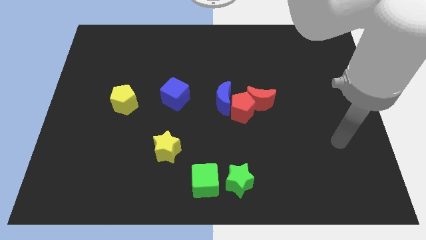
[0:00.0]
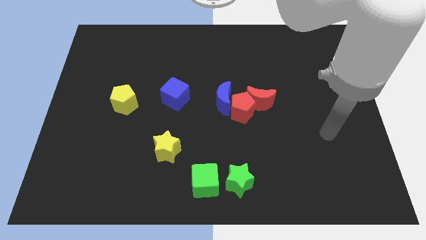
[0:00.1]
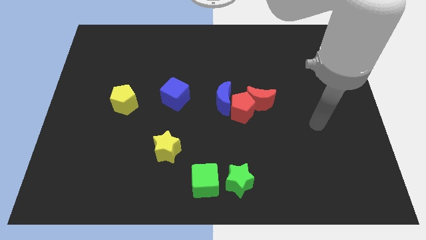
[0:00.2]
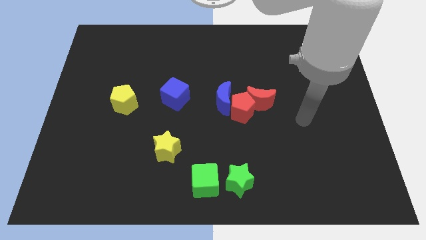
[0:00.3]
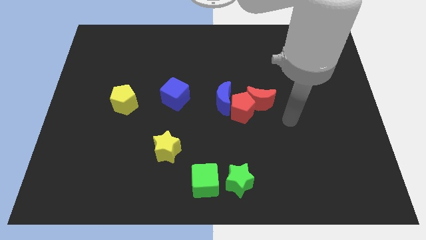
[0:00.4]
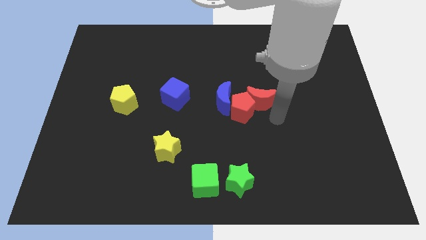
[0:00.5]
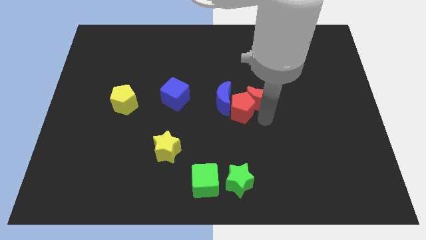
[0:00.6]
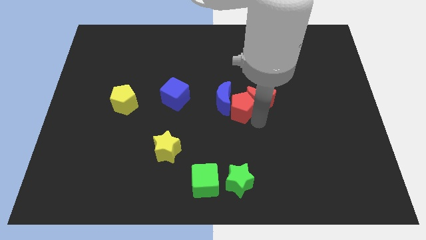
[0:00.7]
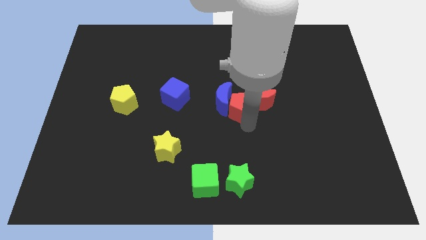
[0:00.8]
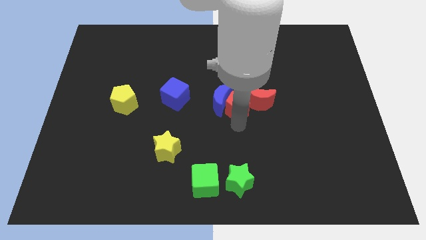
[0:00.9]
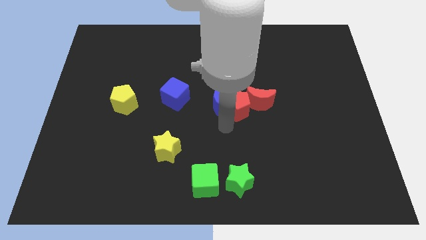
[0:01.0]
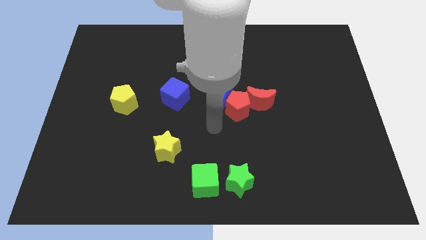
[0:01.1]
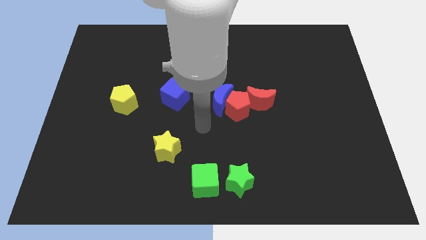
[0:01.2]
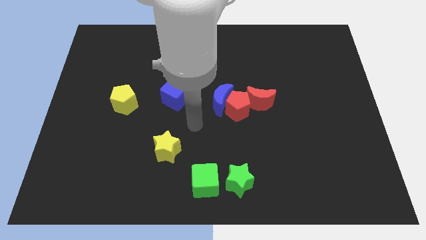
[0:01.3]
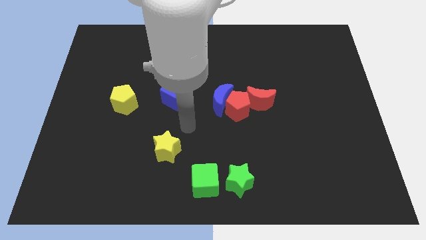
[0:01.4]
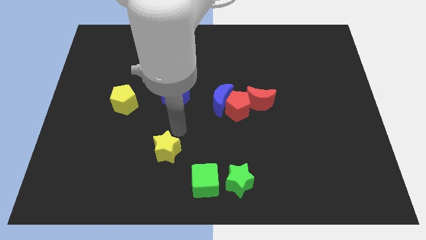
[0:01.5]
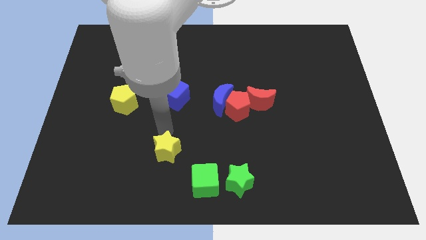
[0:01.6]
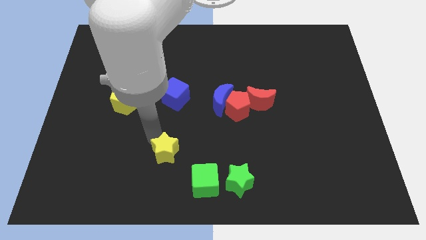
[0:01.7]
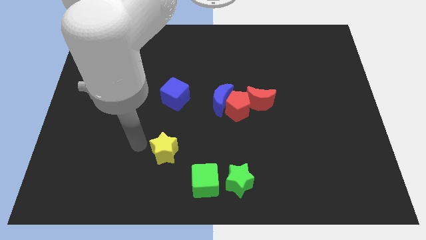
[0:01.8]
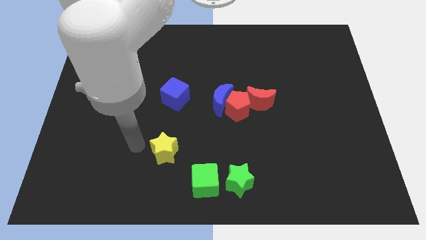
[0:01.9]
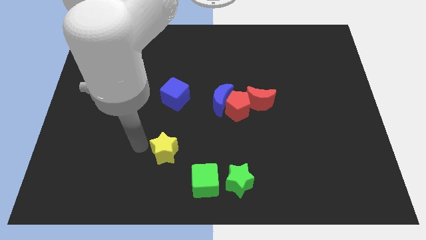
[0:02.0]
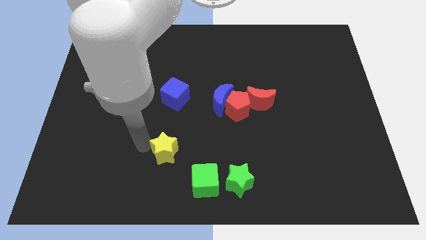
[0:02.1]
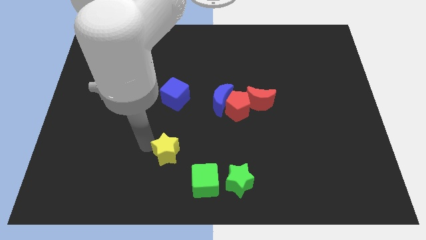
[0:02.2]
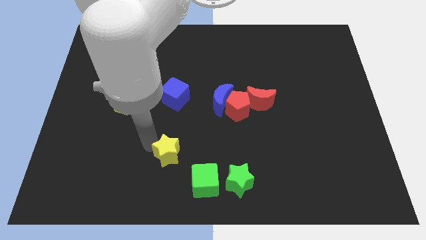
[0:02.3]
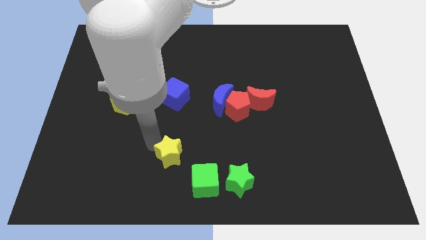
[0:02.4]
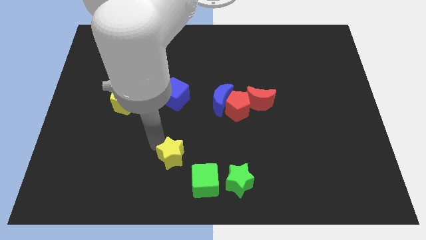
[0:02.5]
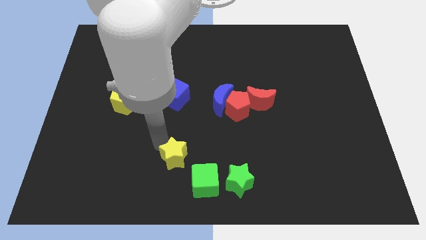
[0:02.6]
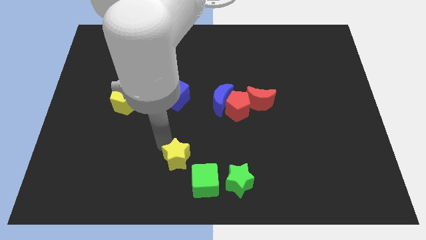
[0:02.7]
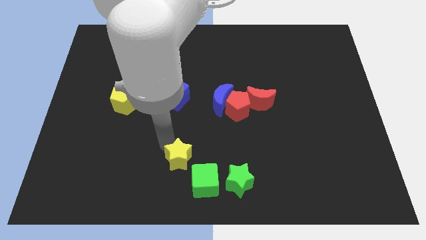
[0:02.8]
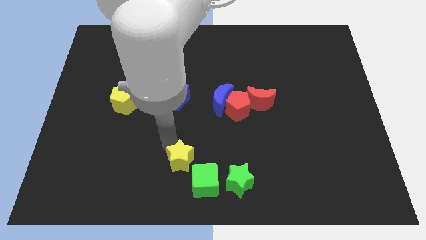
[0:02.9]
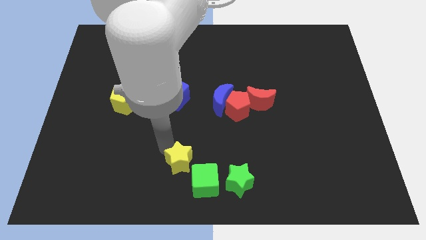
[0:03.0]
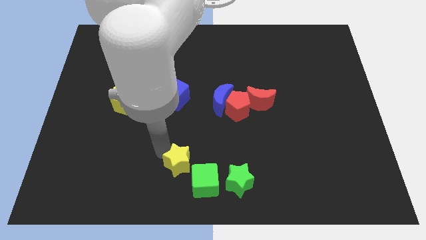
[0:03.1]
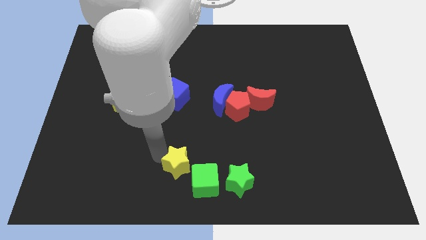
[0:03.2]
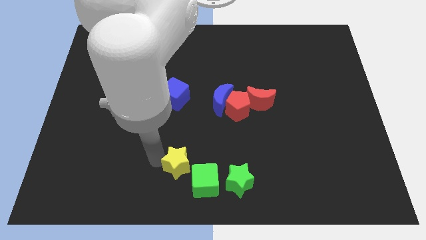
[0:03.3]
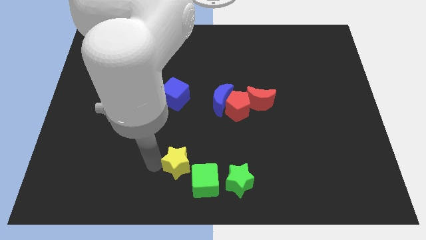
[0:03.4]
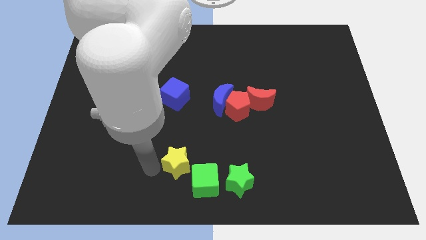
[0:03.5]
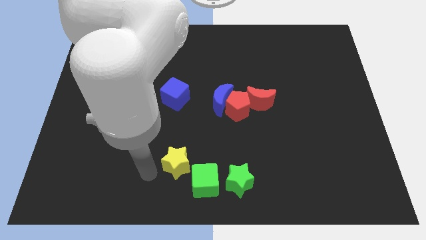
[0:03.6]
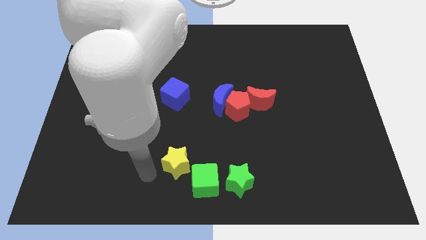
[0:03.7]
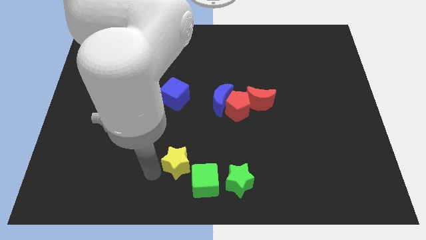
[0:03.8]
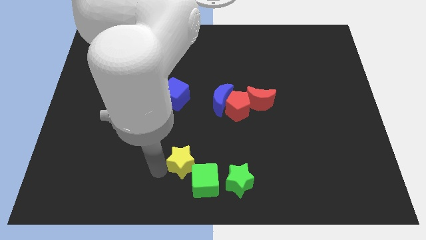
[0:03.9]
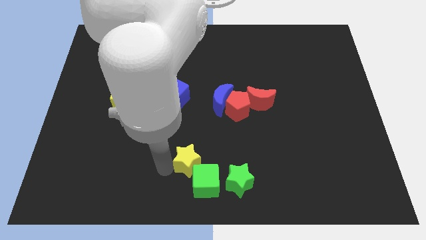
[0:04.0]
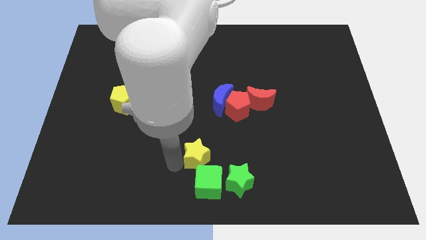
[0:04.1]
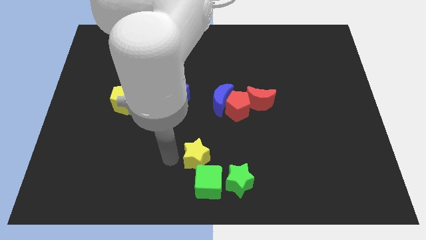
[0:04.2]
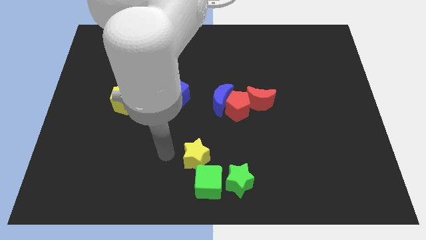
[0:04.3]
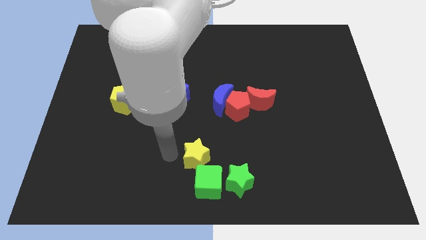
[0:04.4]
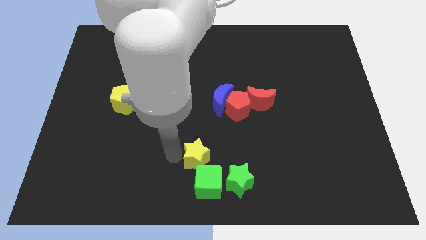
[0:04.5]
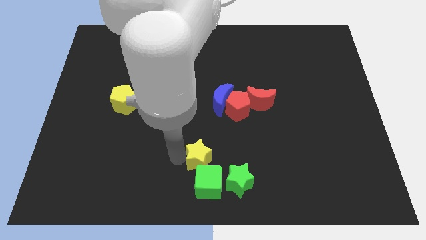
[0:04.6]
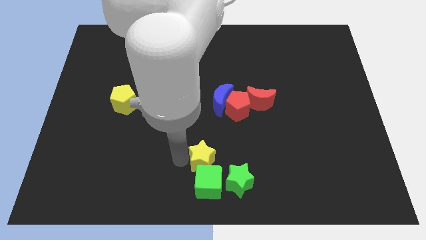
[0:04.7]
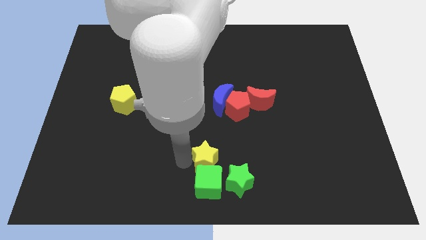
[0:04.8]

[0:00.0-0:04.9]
move the yellow star to the top right of the green cube

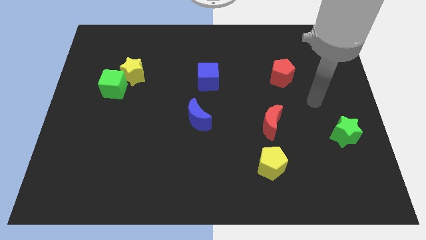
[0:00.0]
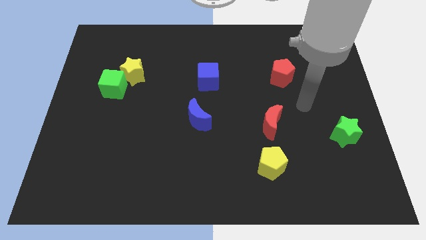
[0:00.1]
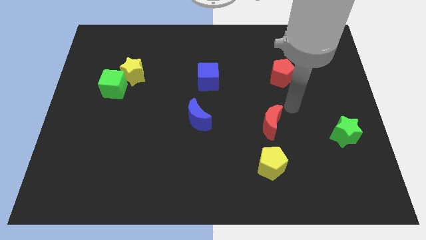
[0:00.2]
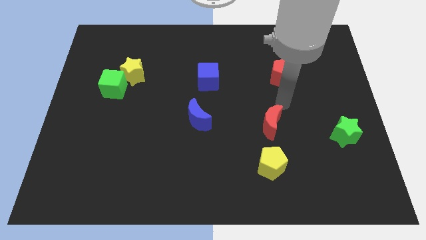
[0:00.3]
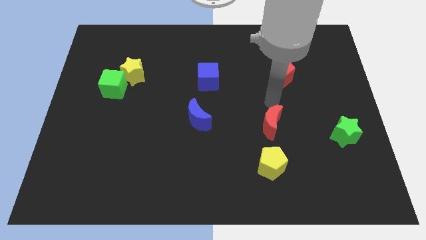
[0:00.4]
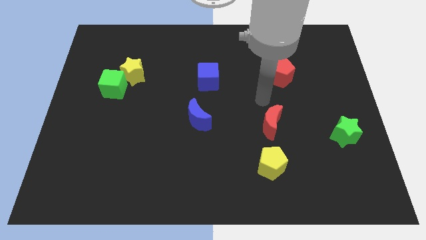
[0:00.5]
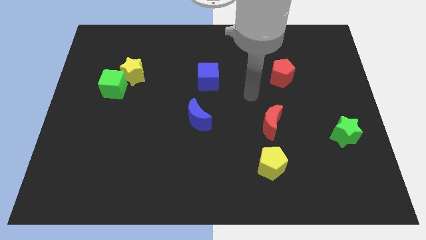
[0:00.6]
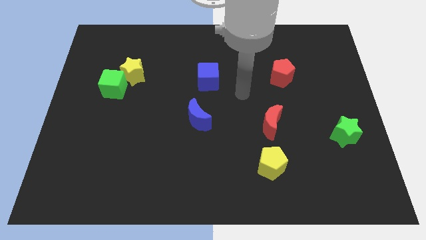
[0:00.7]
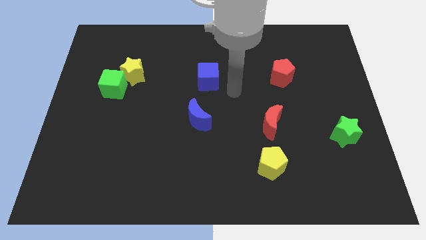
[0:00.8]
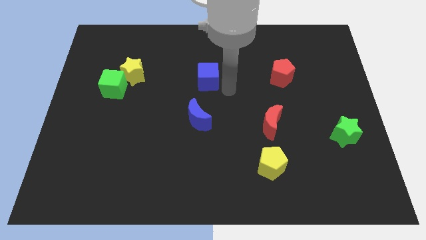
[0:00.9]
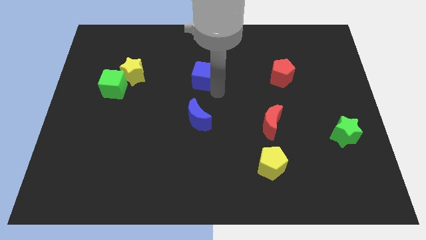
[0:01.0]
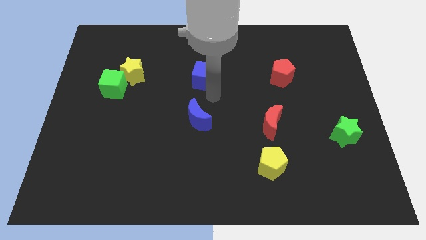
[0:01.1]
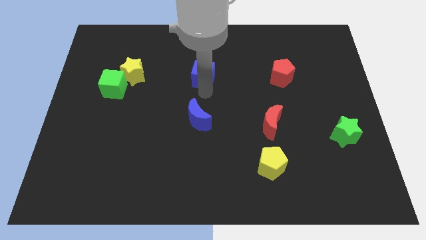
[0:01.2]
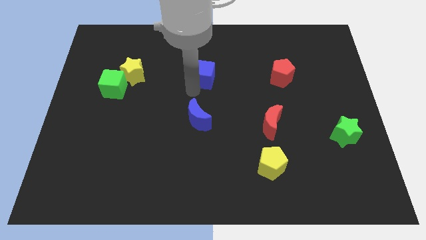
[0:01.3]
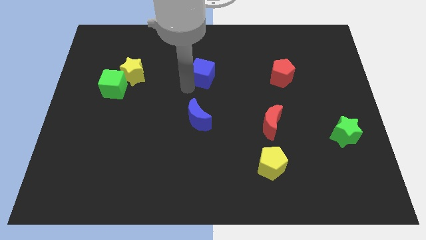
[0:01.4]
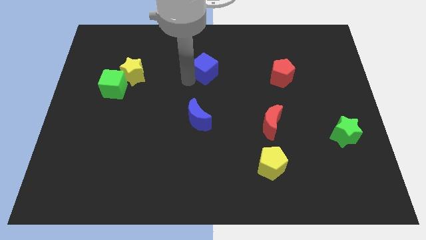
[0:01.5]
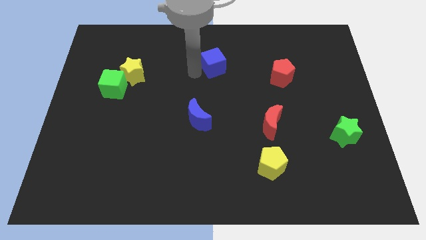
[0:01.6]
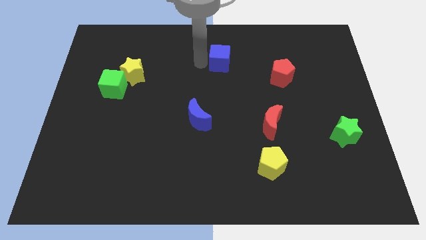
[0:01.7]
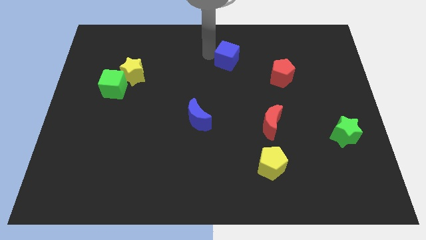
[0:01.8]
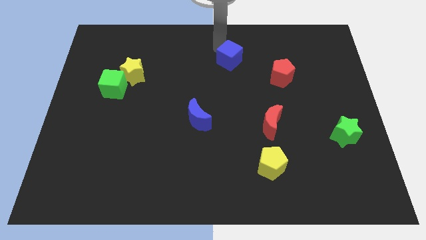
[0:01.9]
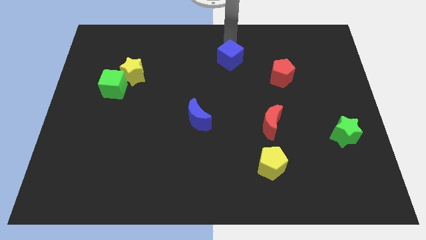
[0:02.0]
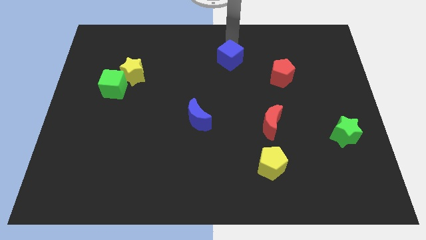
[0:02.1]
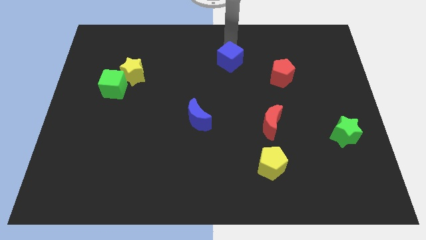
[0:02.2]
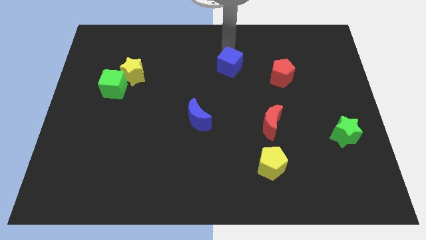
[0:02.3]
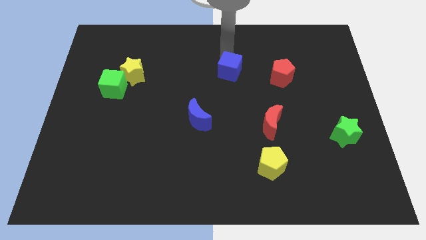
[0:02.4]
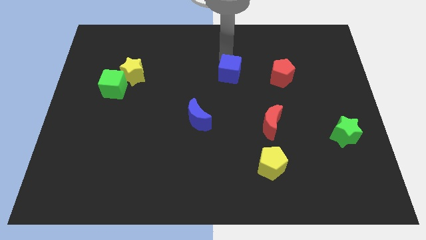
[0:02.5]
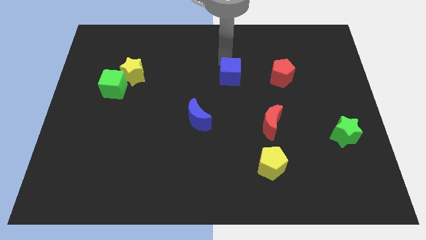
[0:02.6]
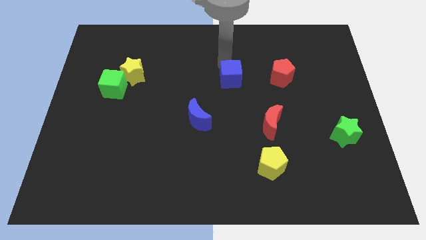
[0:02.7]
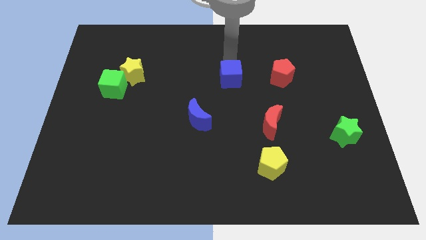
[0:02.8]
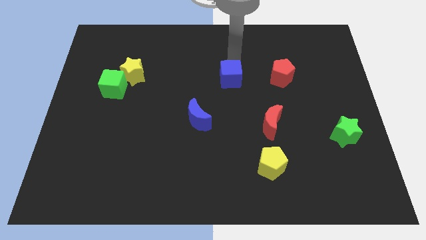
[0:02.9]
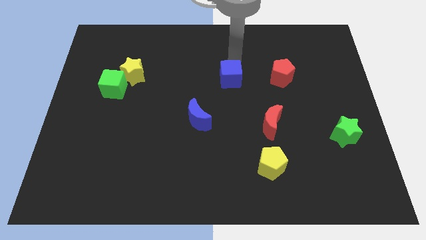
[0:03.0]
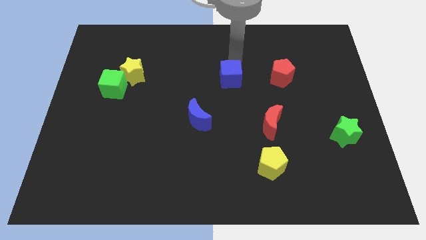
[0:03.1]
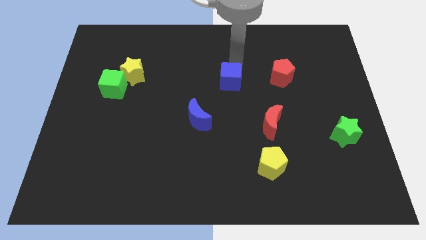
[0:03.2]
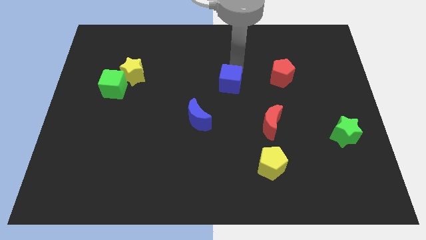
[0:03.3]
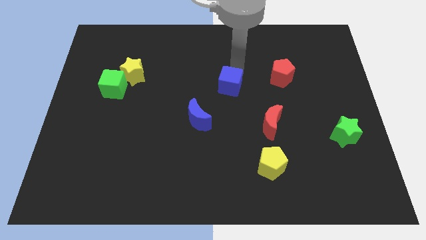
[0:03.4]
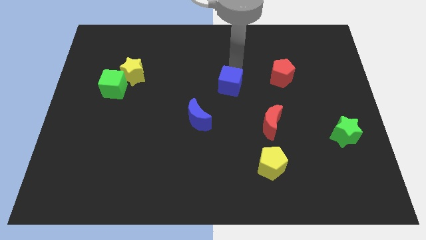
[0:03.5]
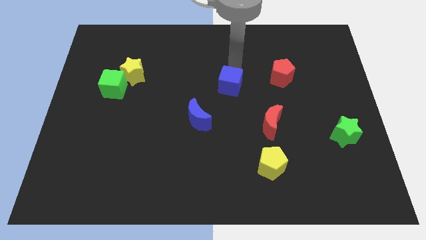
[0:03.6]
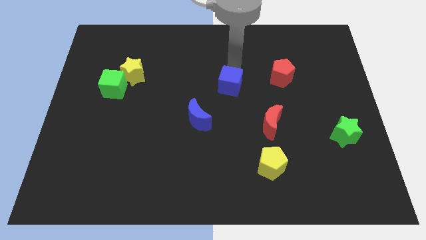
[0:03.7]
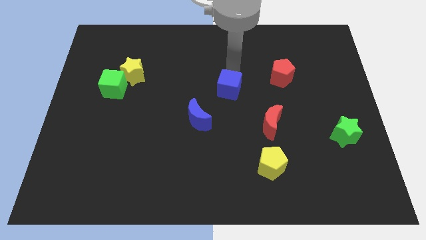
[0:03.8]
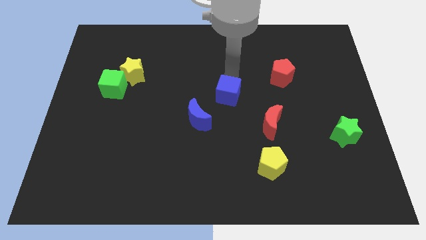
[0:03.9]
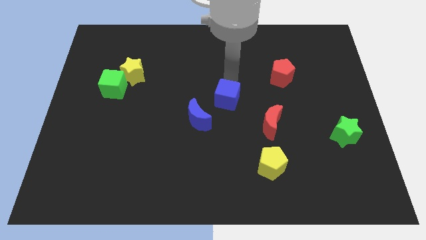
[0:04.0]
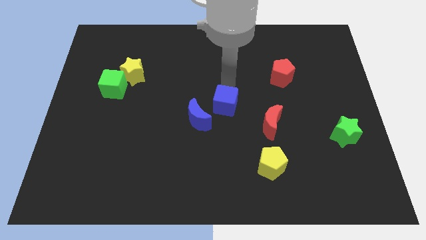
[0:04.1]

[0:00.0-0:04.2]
slide the blue cube to the right side of the blue moon
